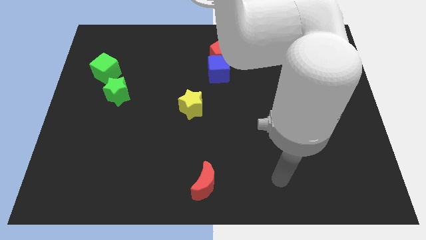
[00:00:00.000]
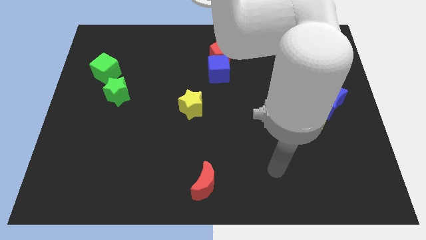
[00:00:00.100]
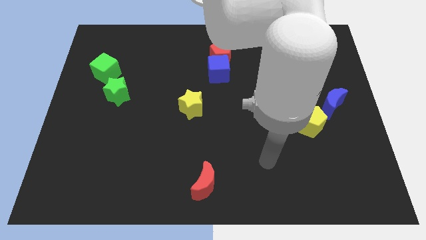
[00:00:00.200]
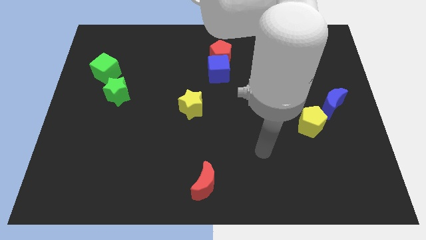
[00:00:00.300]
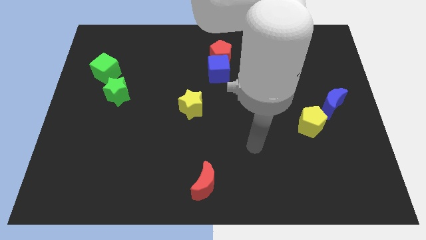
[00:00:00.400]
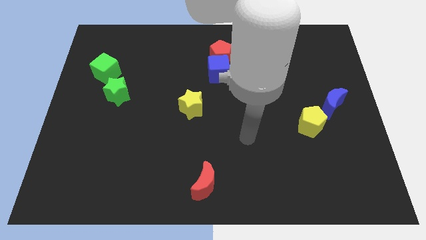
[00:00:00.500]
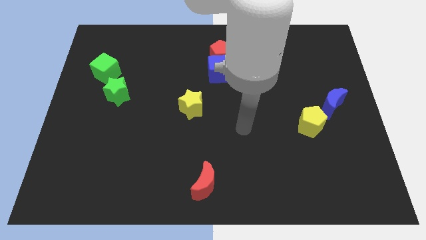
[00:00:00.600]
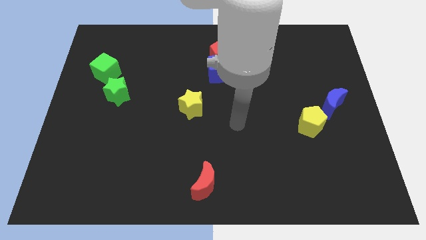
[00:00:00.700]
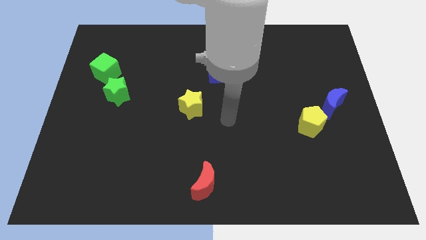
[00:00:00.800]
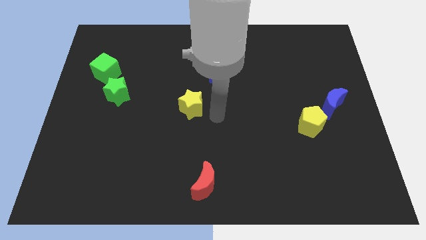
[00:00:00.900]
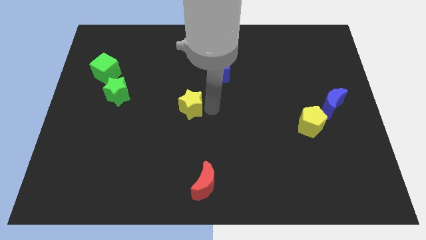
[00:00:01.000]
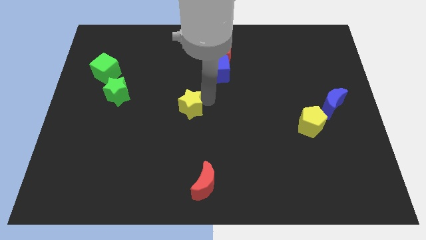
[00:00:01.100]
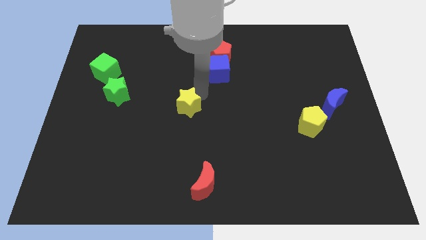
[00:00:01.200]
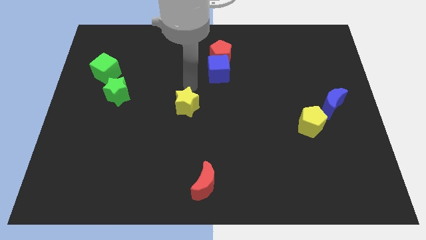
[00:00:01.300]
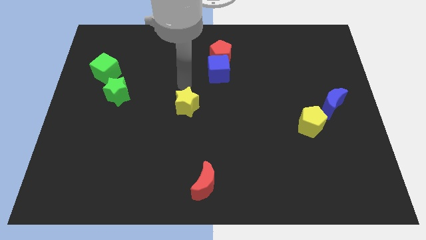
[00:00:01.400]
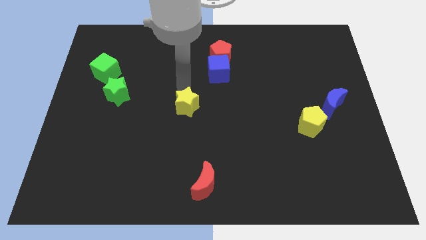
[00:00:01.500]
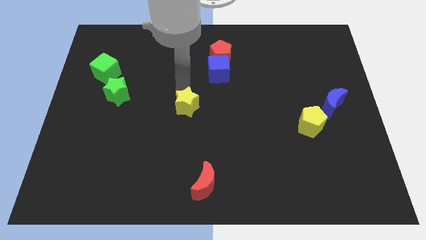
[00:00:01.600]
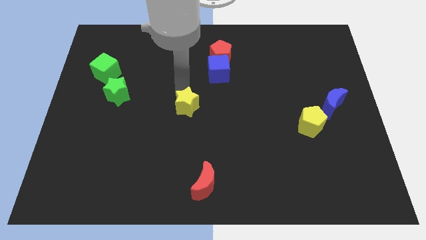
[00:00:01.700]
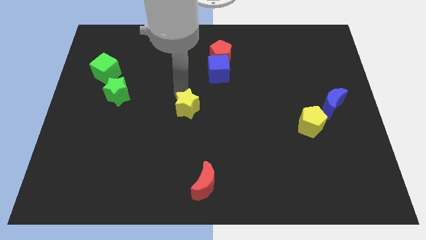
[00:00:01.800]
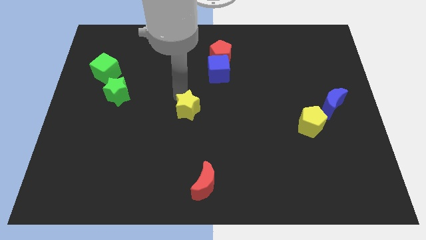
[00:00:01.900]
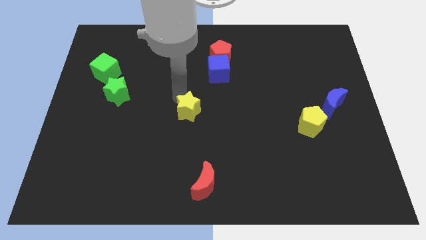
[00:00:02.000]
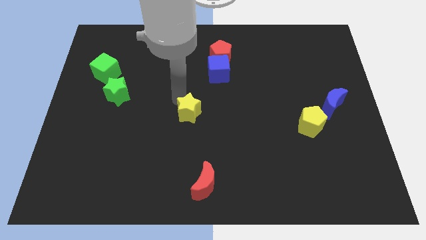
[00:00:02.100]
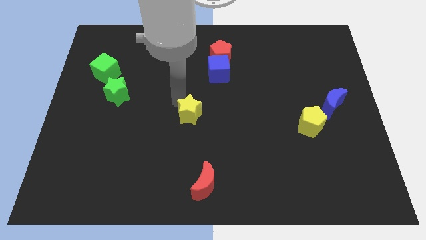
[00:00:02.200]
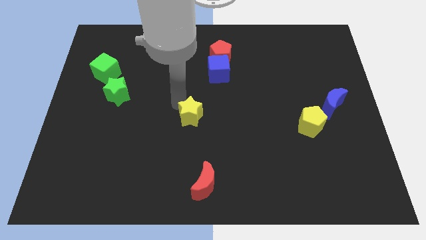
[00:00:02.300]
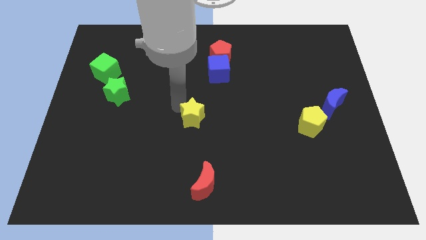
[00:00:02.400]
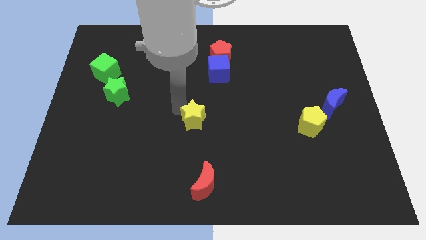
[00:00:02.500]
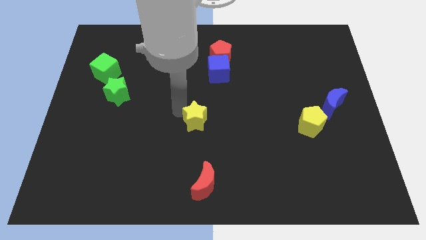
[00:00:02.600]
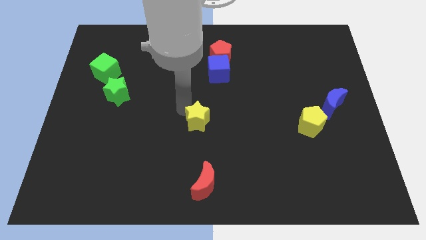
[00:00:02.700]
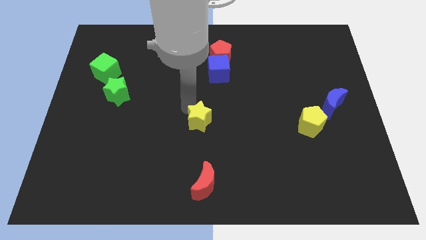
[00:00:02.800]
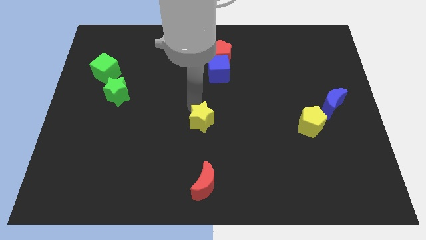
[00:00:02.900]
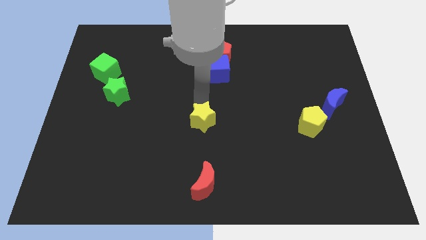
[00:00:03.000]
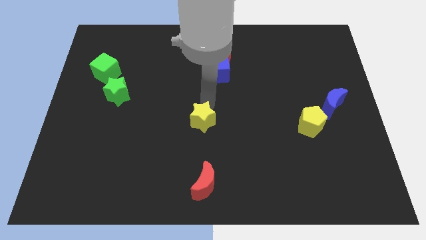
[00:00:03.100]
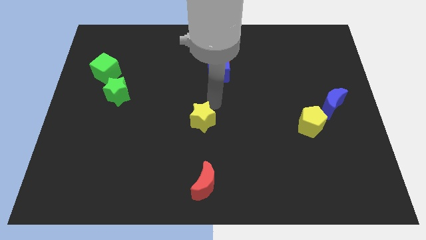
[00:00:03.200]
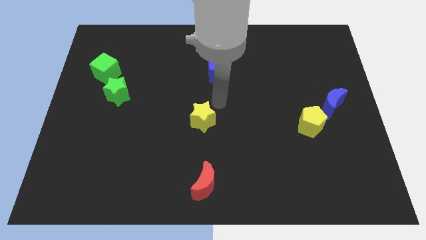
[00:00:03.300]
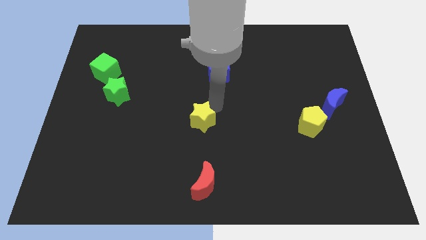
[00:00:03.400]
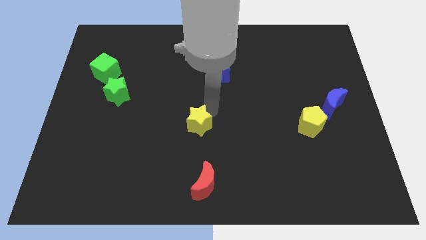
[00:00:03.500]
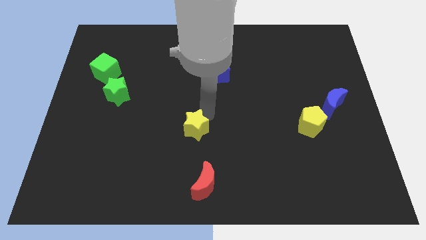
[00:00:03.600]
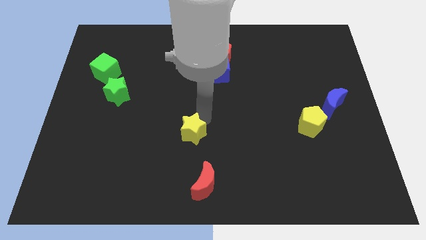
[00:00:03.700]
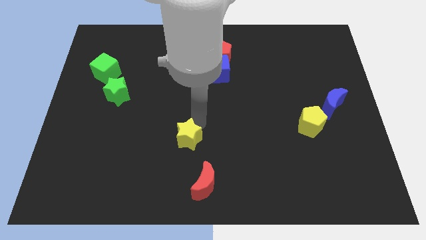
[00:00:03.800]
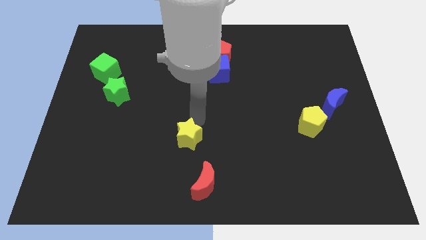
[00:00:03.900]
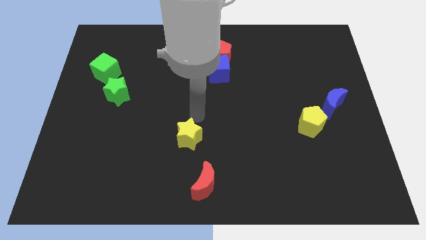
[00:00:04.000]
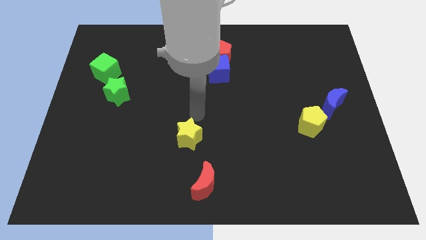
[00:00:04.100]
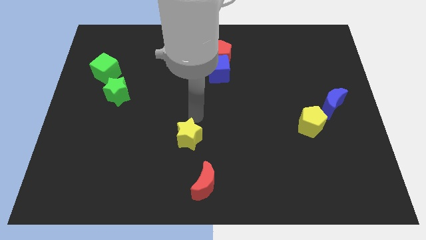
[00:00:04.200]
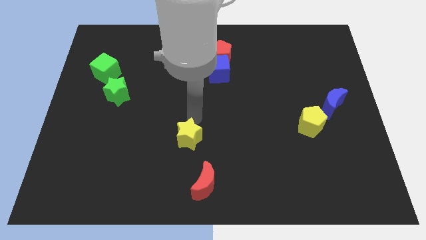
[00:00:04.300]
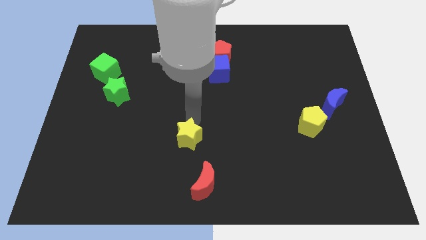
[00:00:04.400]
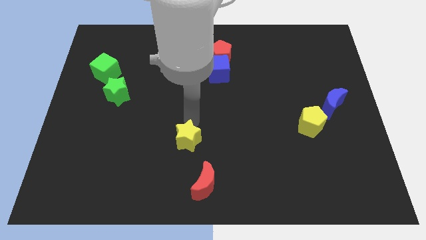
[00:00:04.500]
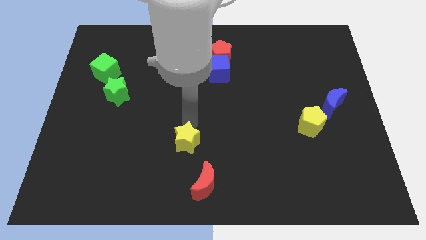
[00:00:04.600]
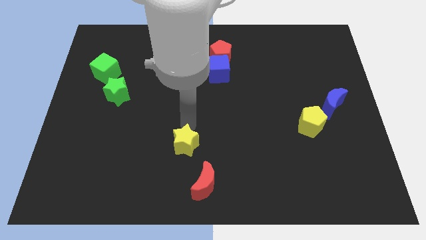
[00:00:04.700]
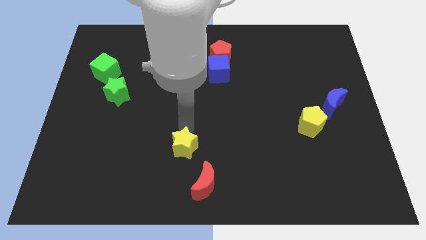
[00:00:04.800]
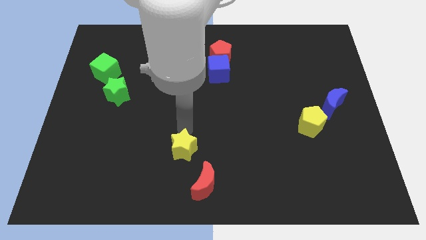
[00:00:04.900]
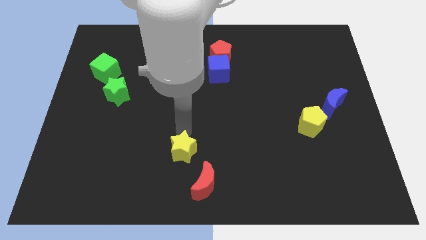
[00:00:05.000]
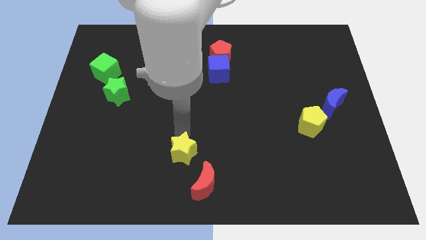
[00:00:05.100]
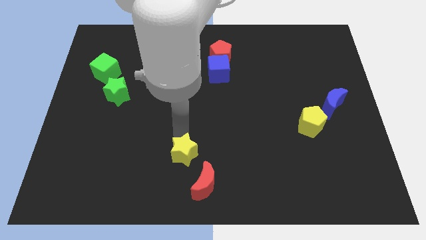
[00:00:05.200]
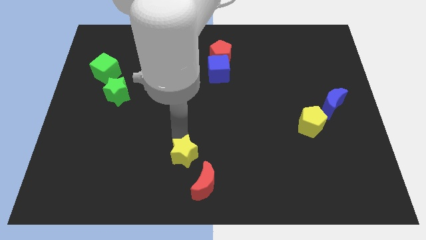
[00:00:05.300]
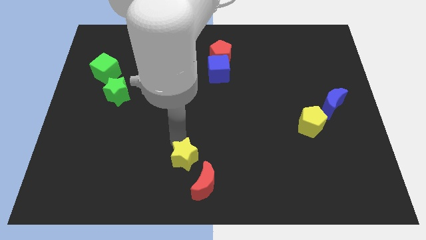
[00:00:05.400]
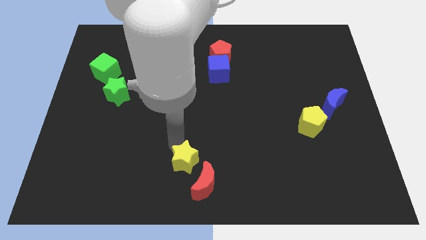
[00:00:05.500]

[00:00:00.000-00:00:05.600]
put the yellow star to the bottom side
